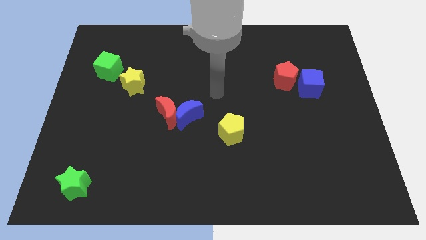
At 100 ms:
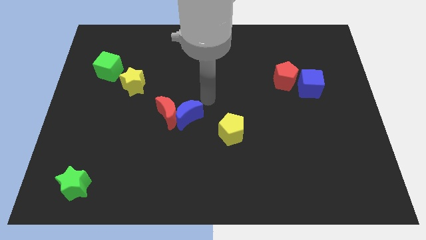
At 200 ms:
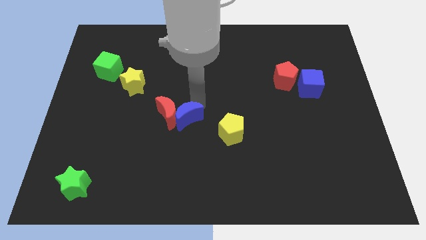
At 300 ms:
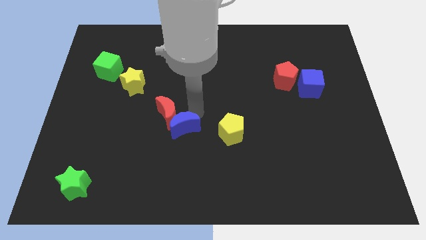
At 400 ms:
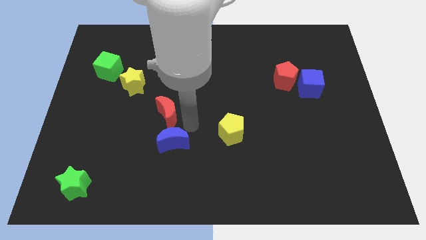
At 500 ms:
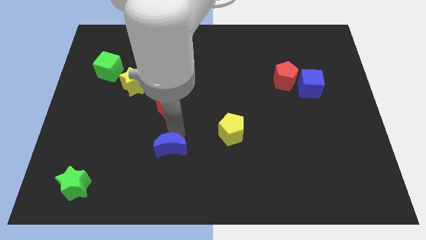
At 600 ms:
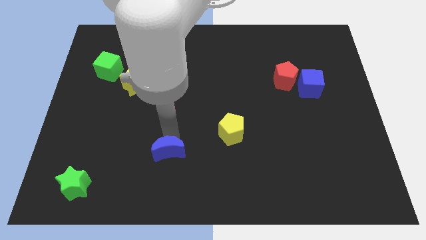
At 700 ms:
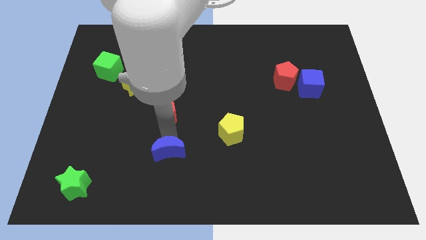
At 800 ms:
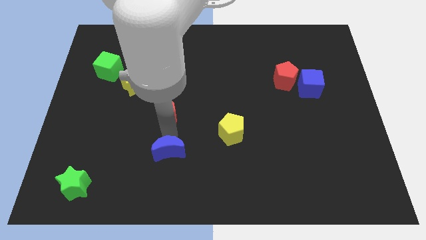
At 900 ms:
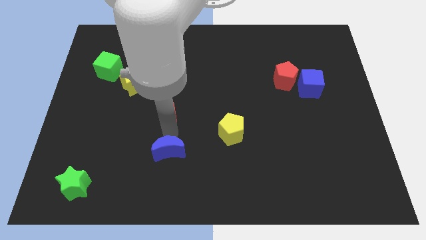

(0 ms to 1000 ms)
separate the red moon from the blue moon

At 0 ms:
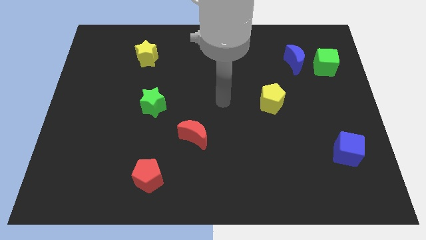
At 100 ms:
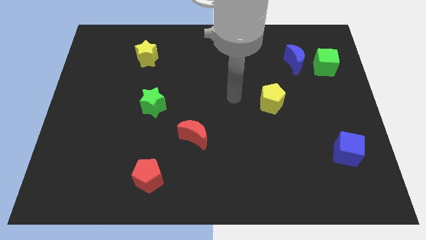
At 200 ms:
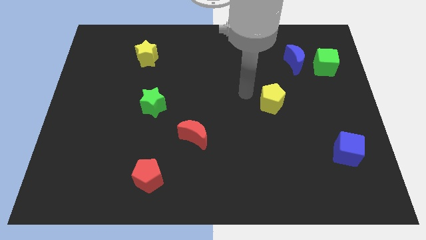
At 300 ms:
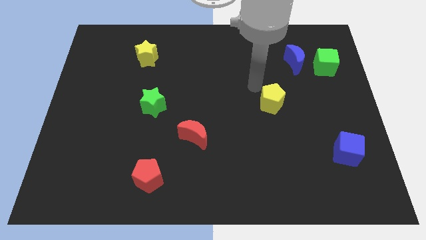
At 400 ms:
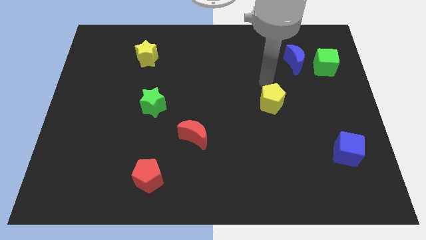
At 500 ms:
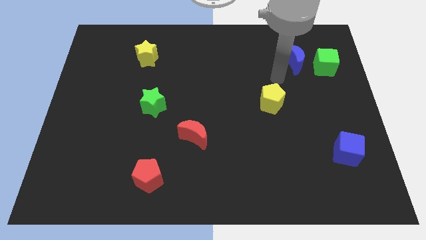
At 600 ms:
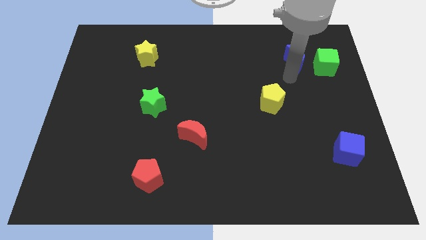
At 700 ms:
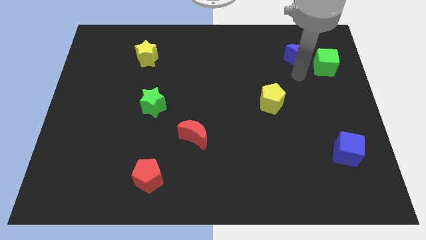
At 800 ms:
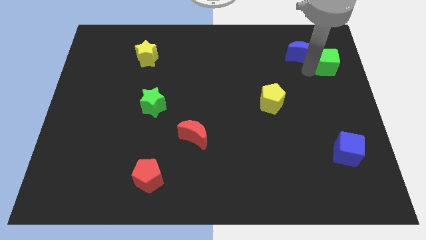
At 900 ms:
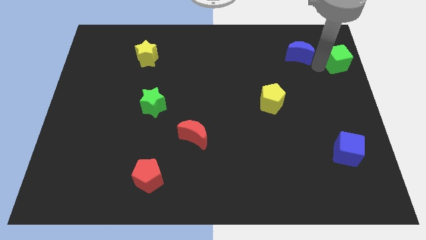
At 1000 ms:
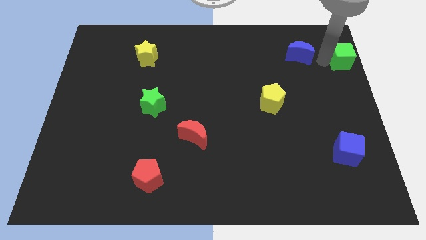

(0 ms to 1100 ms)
move the blue moon away from the green cube

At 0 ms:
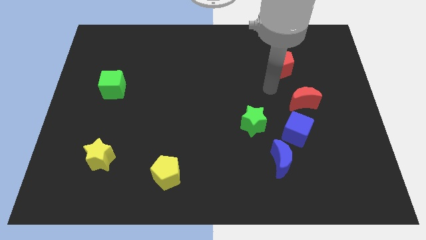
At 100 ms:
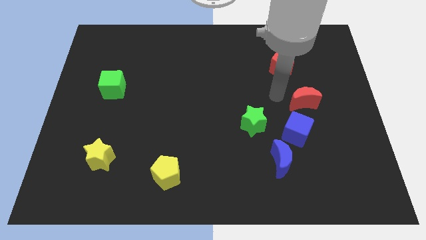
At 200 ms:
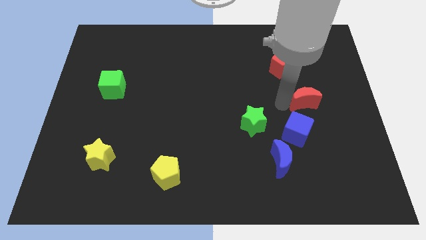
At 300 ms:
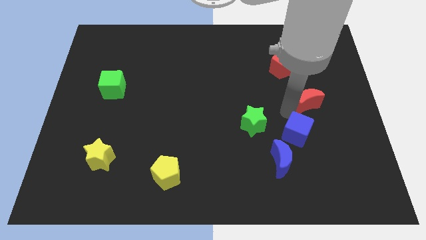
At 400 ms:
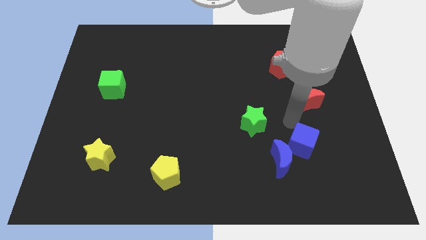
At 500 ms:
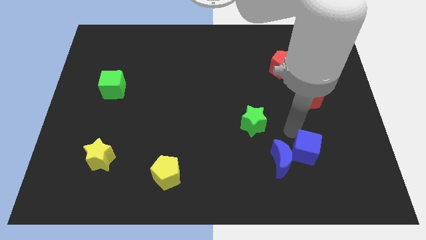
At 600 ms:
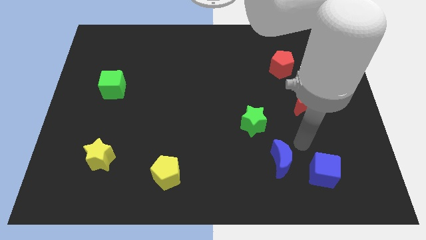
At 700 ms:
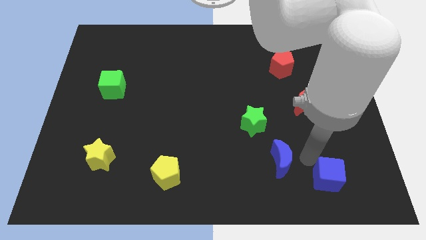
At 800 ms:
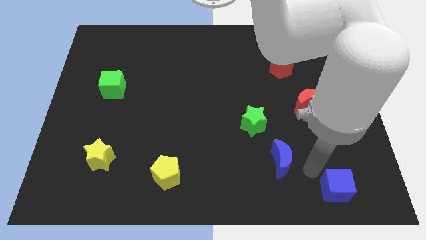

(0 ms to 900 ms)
move the blue moon away from the blue cube

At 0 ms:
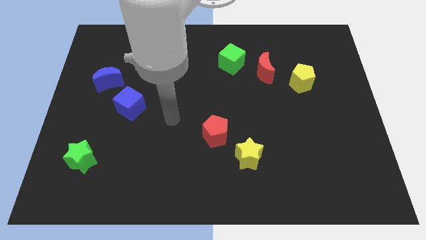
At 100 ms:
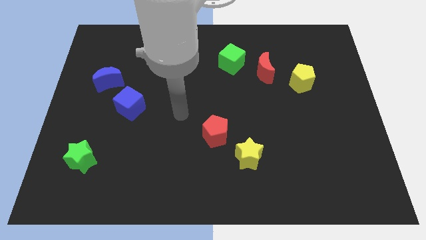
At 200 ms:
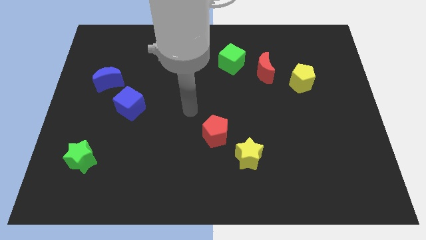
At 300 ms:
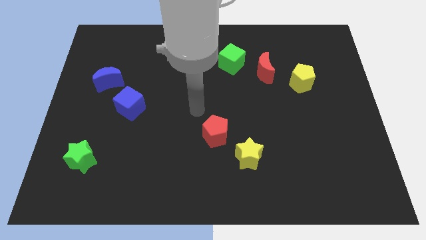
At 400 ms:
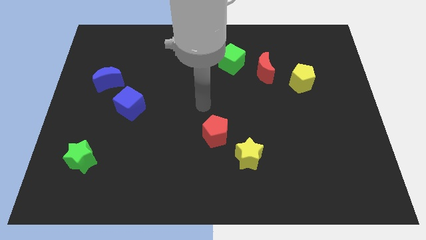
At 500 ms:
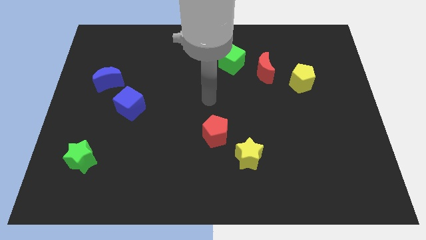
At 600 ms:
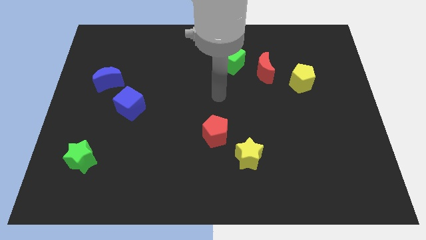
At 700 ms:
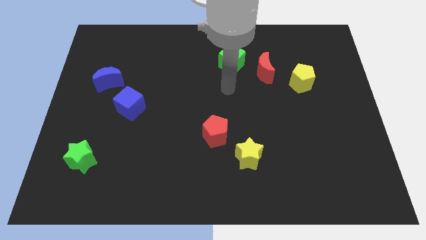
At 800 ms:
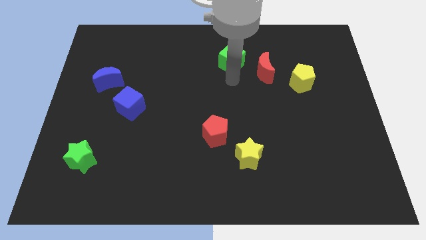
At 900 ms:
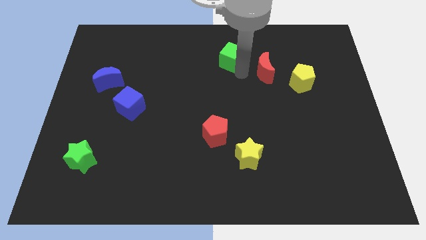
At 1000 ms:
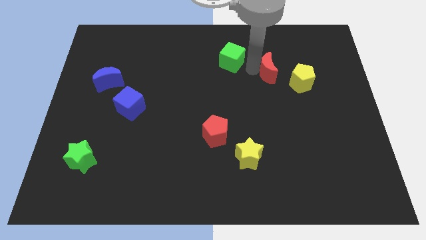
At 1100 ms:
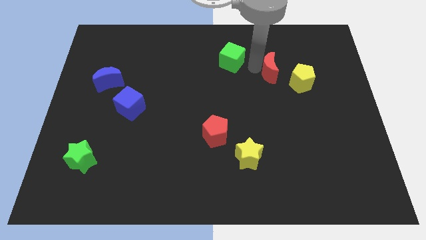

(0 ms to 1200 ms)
separate the green cube from the red moon

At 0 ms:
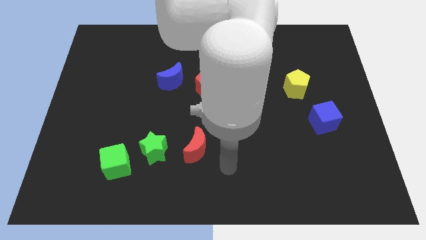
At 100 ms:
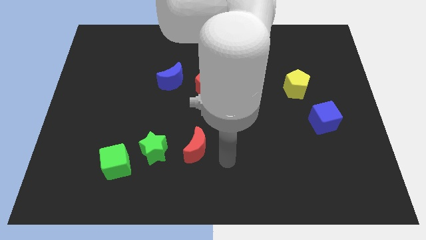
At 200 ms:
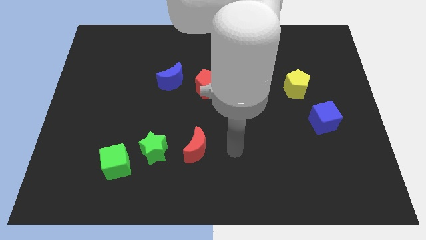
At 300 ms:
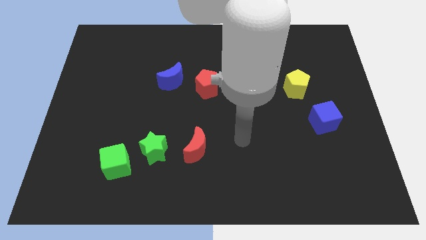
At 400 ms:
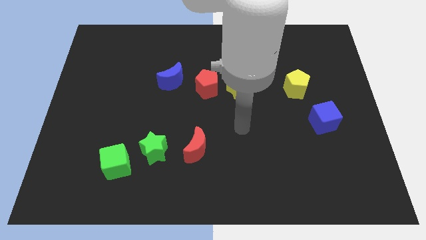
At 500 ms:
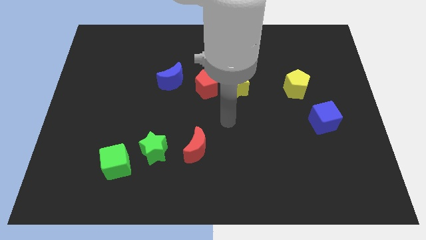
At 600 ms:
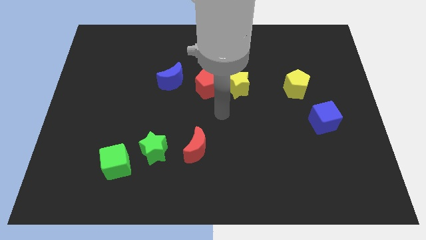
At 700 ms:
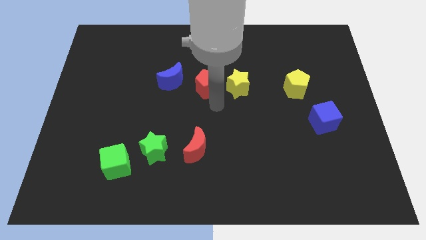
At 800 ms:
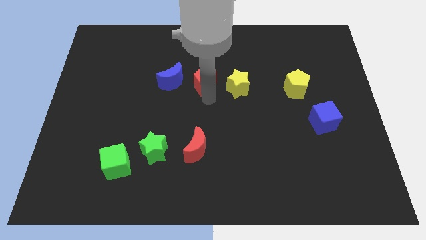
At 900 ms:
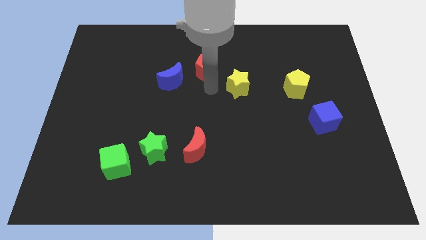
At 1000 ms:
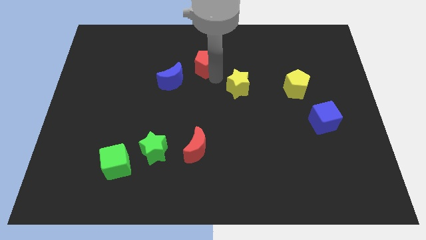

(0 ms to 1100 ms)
pull the yellow star apart from the red pentagon

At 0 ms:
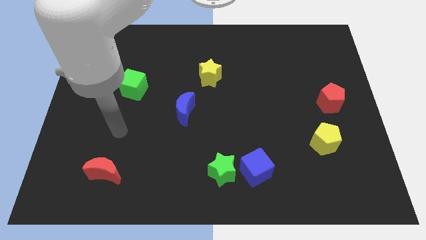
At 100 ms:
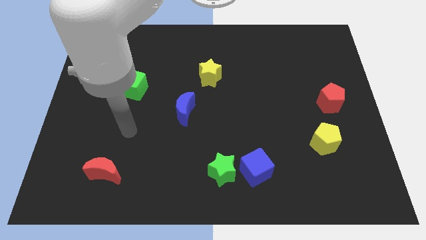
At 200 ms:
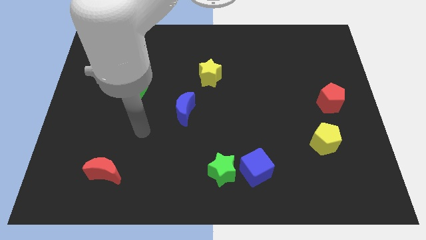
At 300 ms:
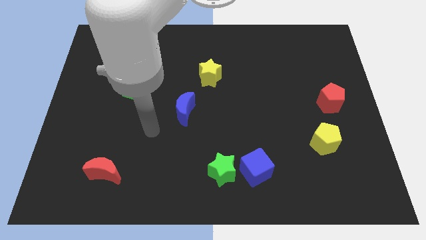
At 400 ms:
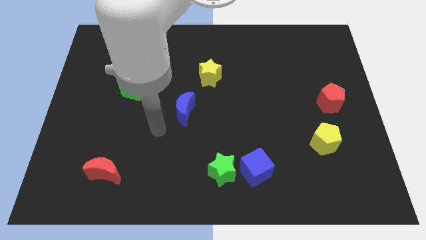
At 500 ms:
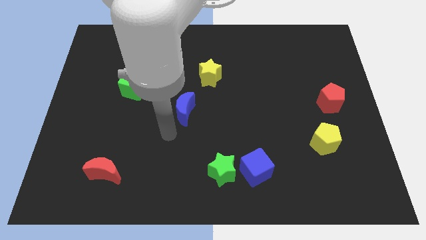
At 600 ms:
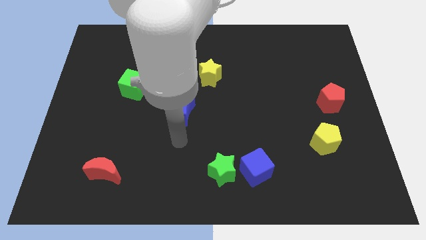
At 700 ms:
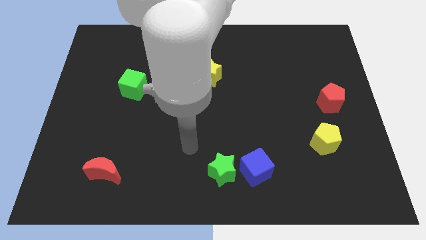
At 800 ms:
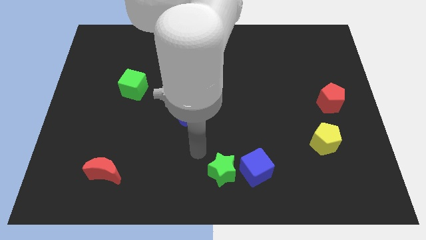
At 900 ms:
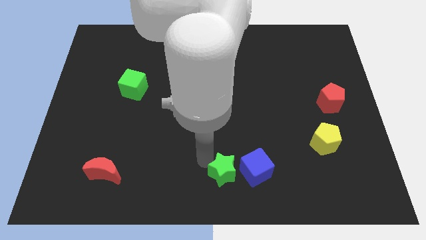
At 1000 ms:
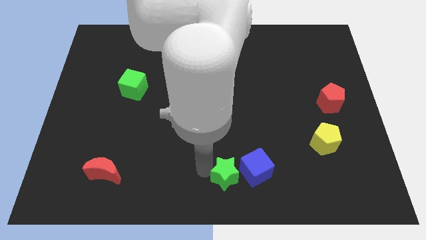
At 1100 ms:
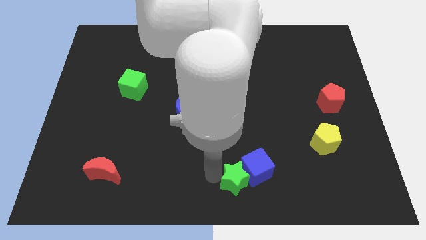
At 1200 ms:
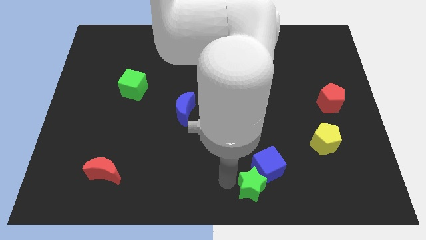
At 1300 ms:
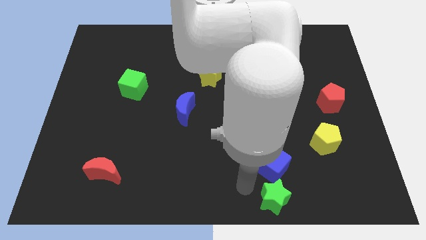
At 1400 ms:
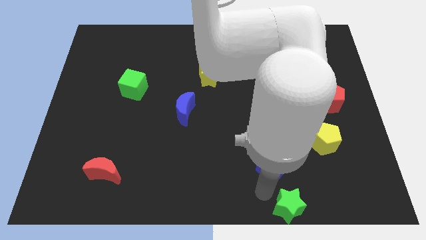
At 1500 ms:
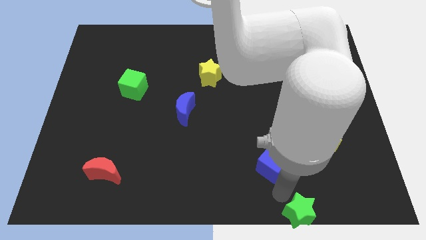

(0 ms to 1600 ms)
pull the blue cube apart from the green star

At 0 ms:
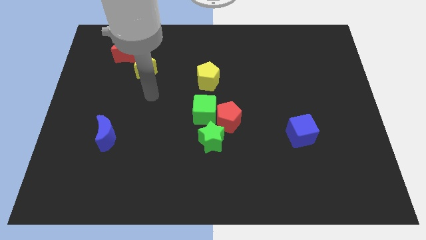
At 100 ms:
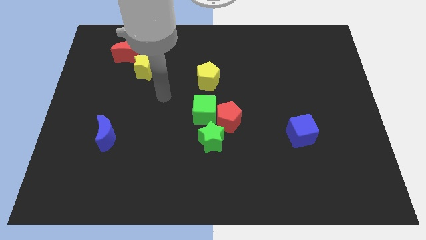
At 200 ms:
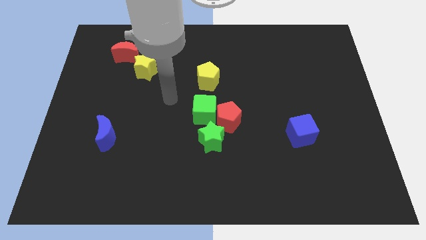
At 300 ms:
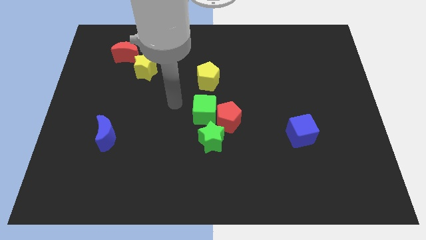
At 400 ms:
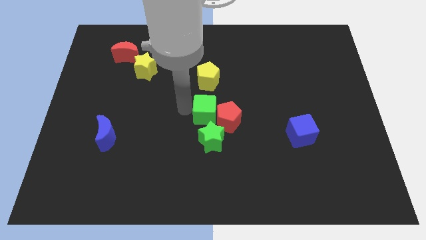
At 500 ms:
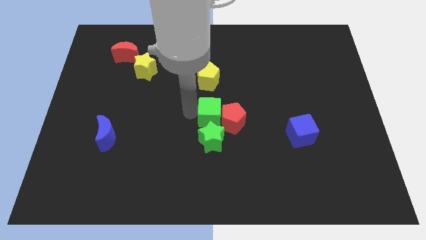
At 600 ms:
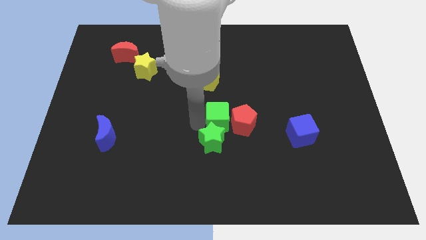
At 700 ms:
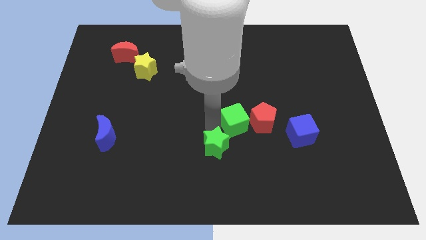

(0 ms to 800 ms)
move the red pentagon away from the green cube and green star

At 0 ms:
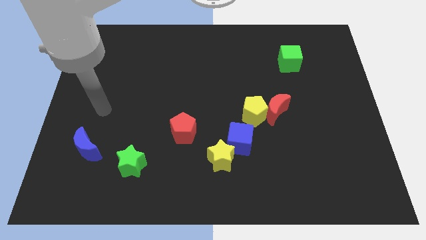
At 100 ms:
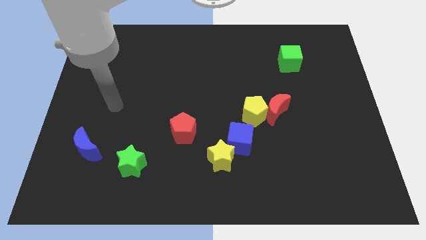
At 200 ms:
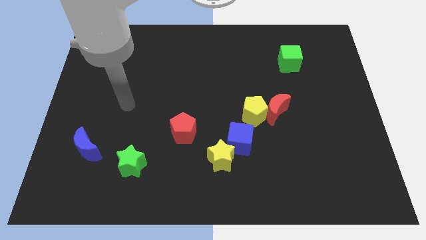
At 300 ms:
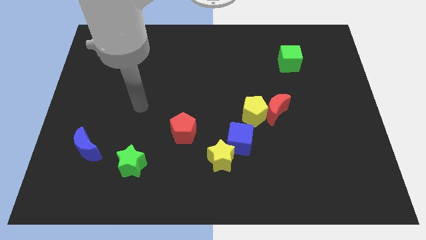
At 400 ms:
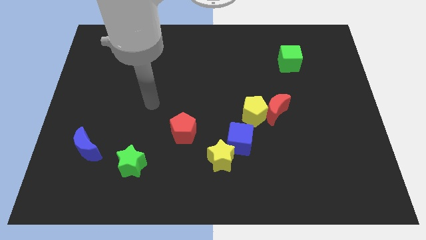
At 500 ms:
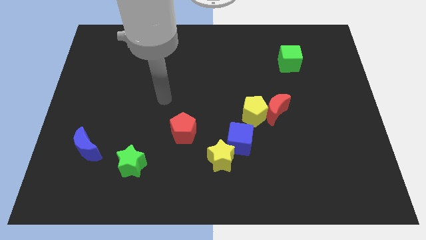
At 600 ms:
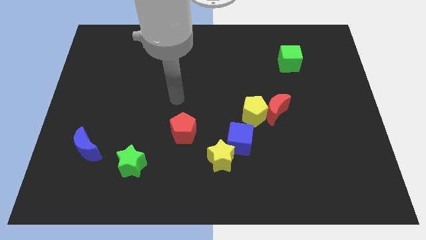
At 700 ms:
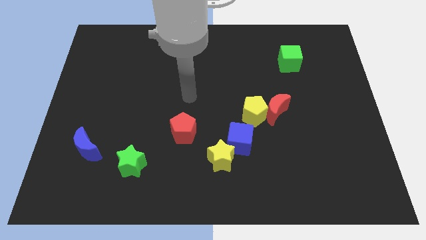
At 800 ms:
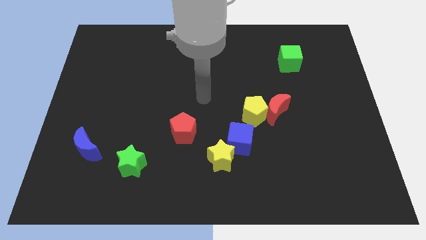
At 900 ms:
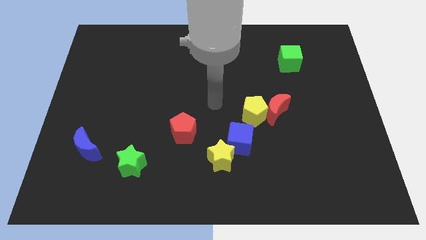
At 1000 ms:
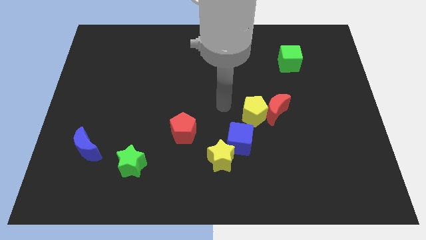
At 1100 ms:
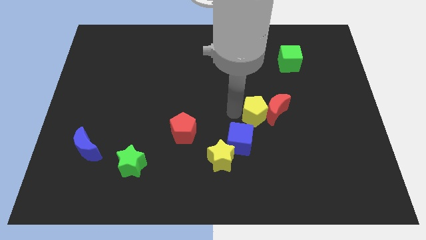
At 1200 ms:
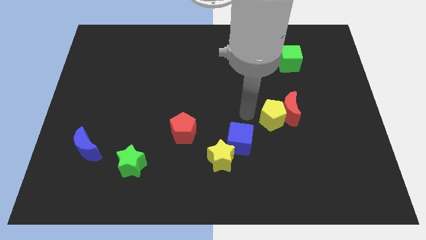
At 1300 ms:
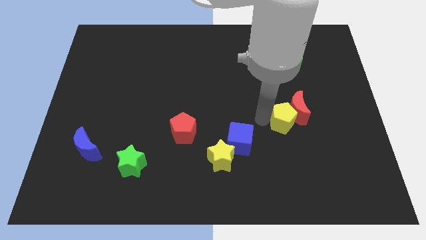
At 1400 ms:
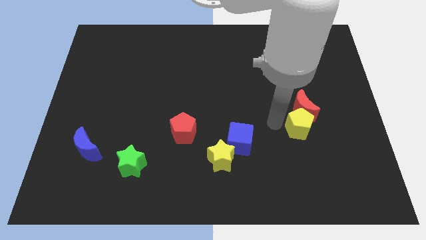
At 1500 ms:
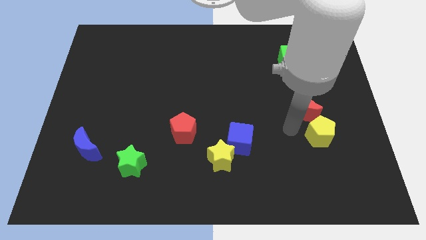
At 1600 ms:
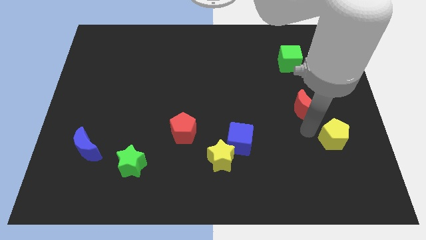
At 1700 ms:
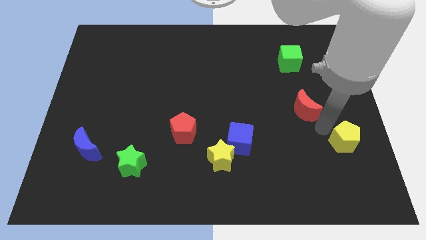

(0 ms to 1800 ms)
pull the red moon apart from the yellow pentagon

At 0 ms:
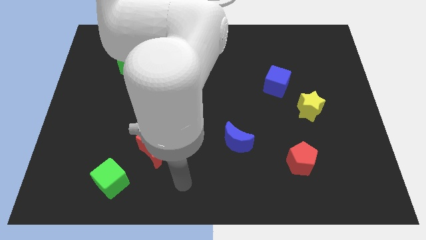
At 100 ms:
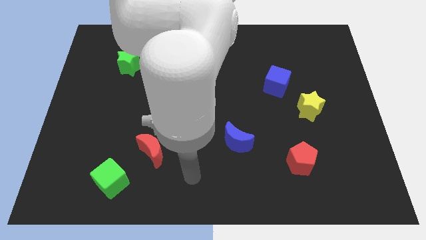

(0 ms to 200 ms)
move the blue cube away from the yellow star
